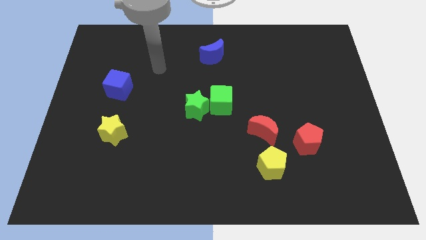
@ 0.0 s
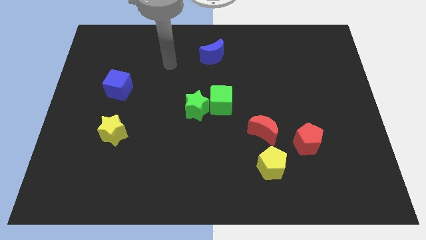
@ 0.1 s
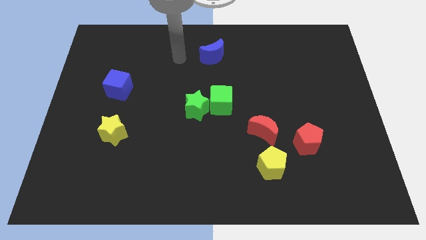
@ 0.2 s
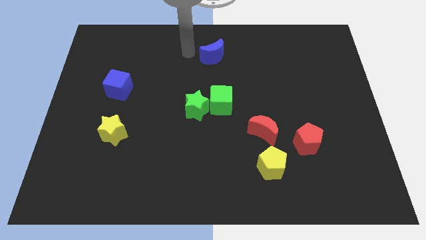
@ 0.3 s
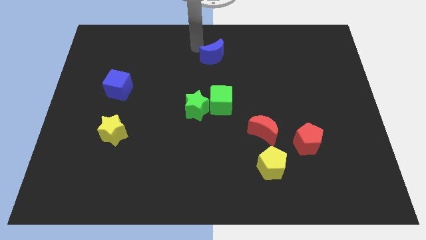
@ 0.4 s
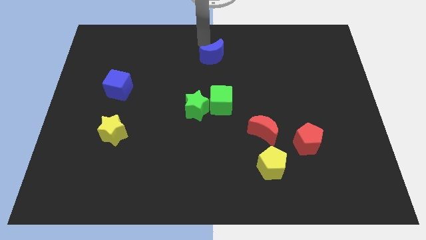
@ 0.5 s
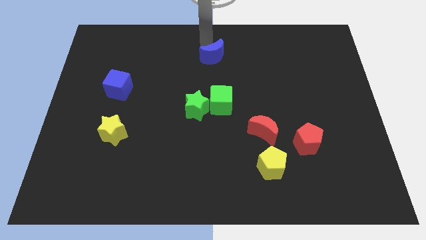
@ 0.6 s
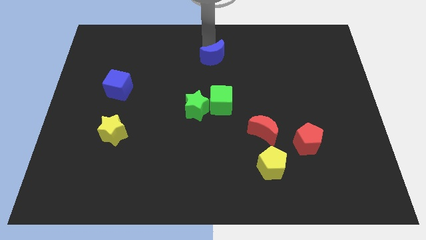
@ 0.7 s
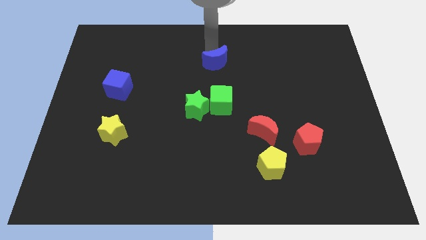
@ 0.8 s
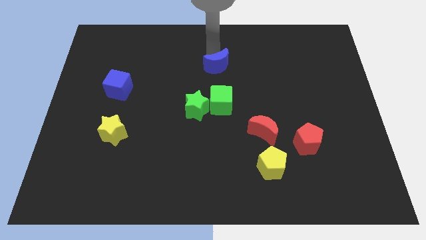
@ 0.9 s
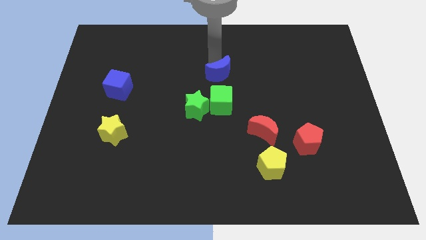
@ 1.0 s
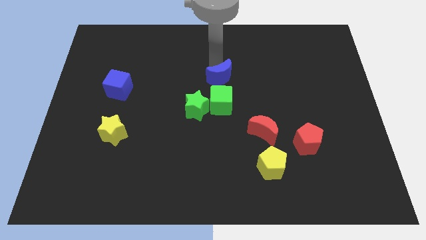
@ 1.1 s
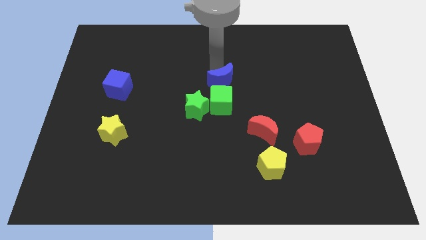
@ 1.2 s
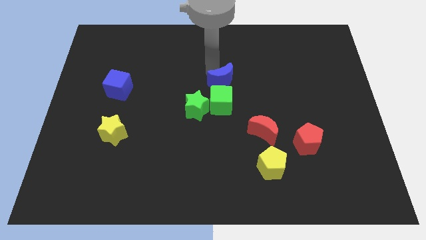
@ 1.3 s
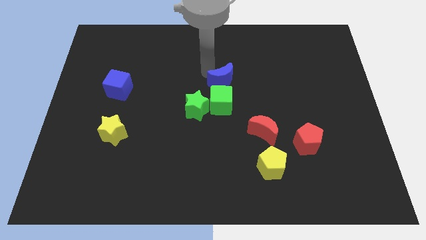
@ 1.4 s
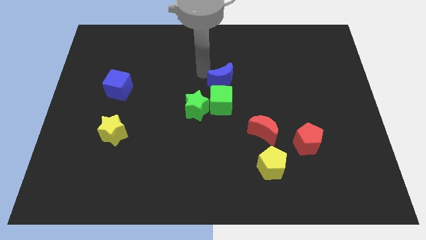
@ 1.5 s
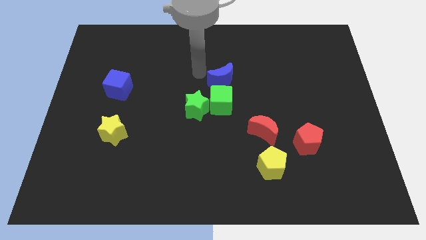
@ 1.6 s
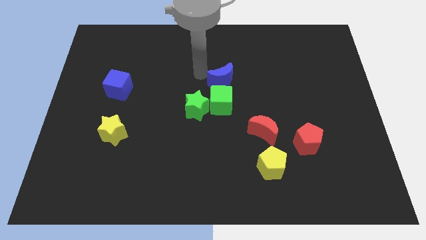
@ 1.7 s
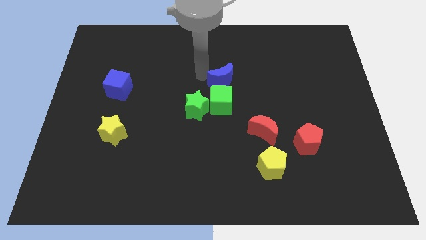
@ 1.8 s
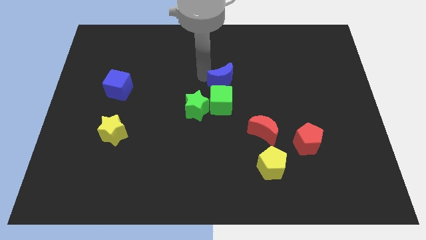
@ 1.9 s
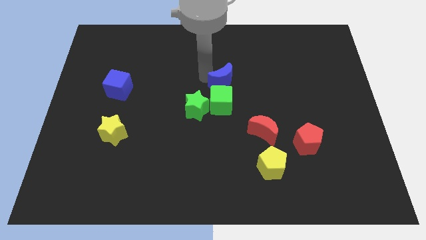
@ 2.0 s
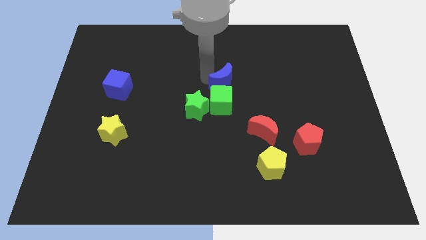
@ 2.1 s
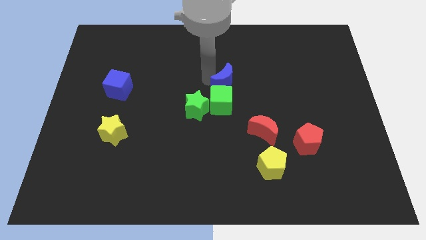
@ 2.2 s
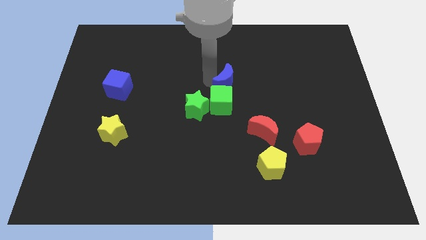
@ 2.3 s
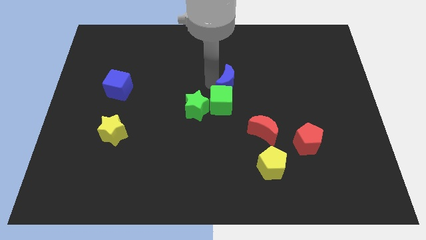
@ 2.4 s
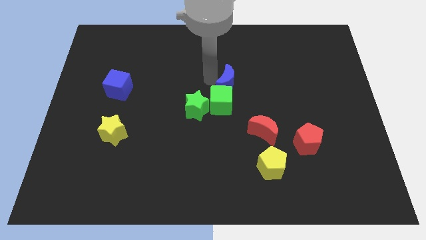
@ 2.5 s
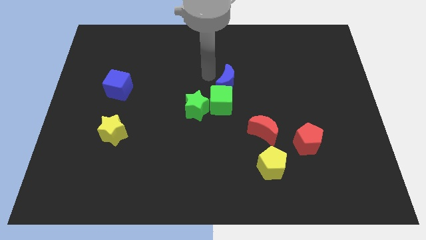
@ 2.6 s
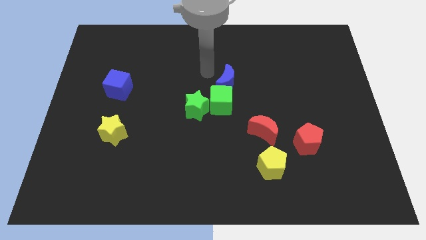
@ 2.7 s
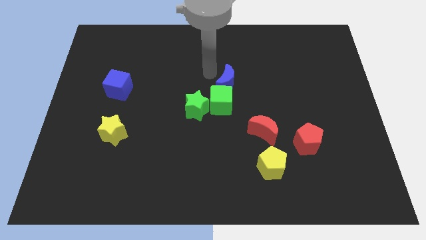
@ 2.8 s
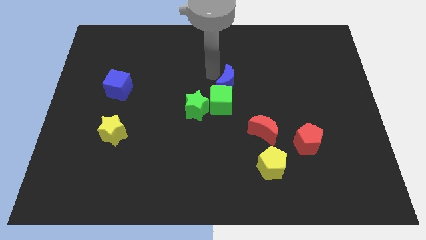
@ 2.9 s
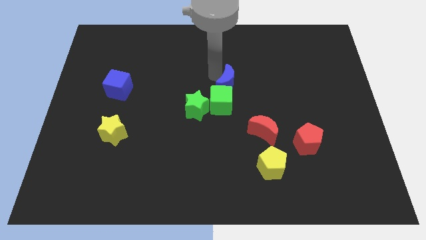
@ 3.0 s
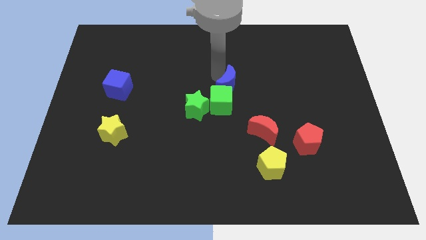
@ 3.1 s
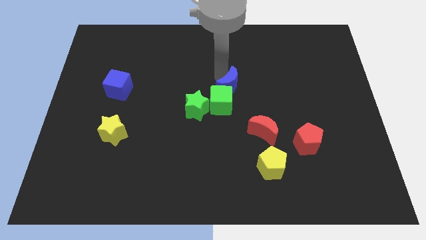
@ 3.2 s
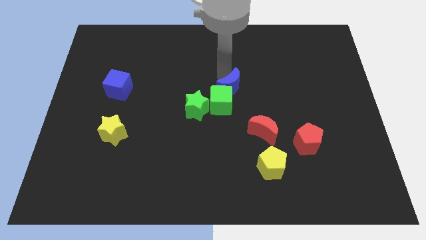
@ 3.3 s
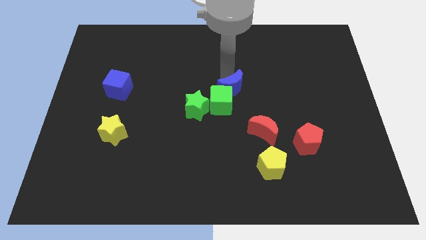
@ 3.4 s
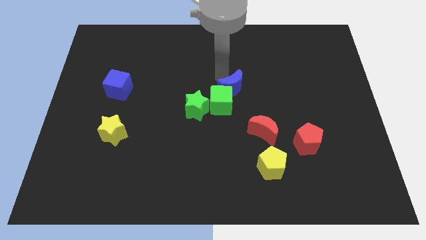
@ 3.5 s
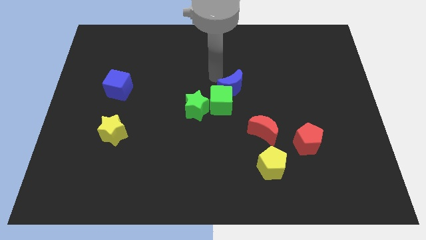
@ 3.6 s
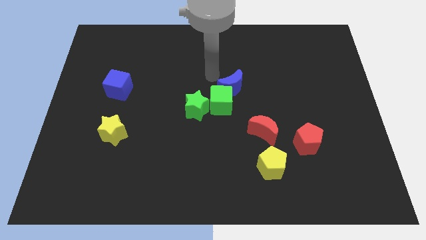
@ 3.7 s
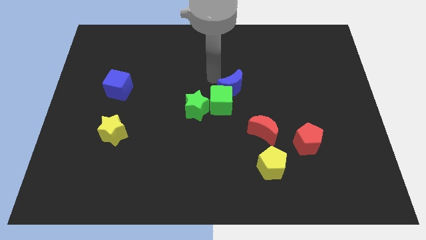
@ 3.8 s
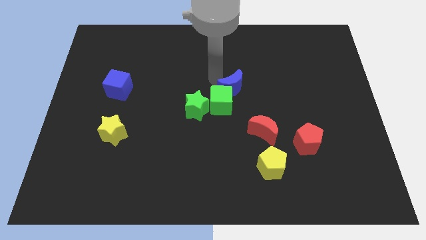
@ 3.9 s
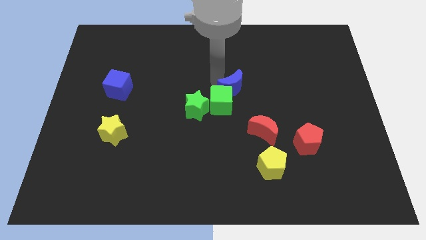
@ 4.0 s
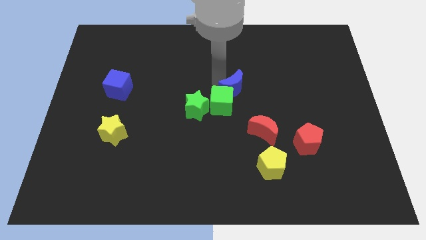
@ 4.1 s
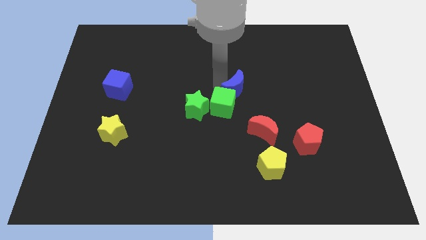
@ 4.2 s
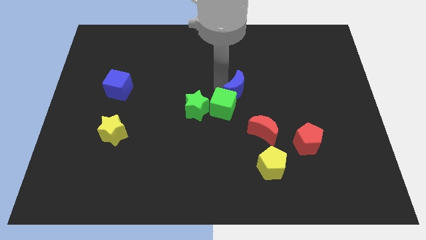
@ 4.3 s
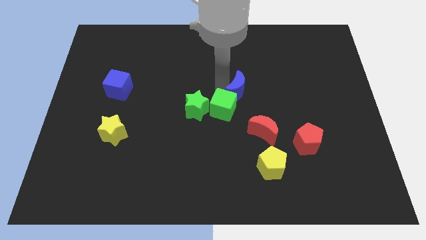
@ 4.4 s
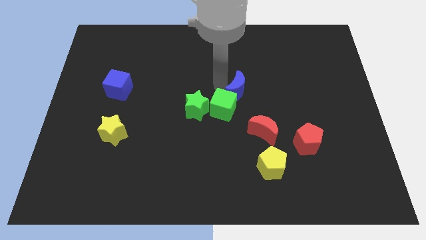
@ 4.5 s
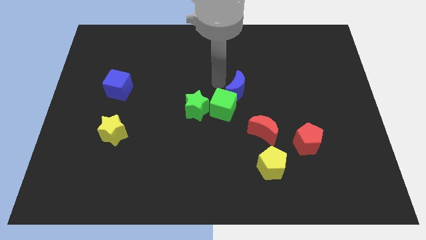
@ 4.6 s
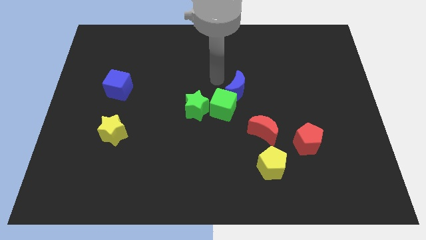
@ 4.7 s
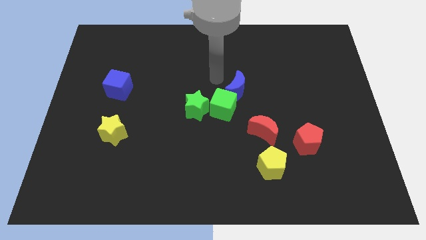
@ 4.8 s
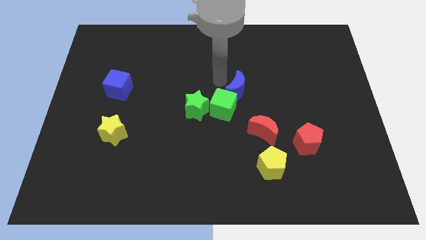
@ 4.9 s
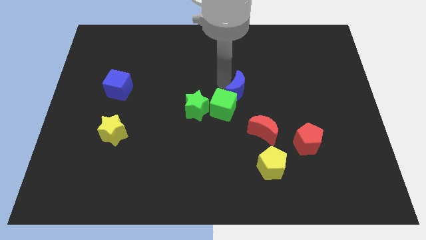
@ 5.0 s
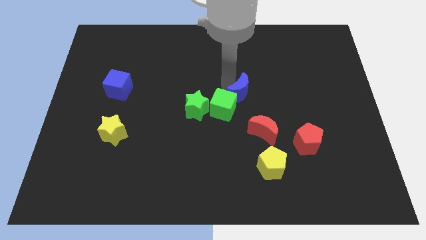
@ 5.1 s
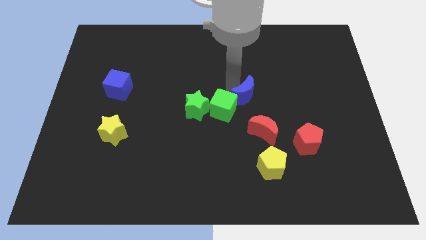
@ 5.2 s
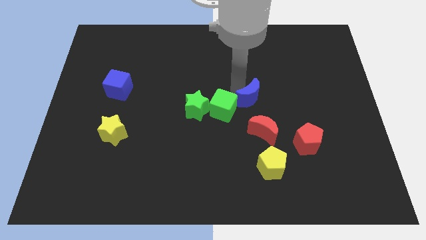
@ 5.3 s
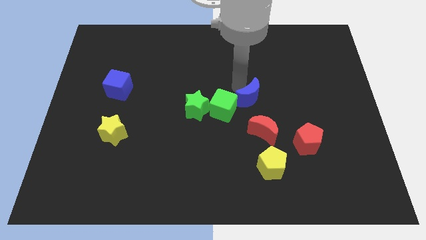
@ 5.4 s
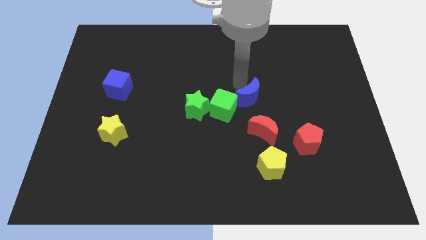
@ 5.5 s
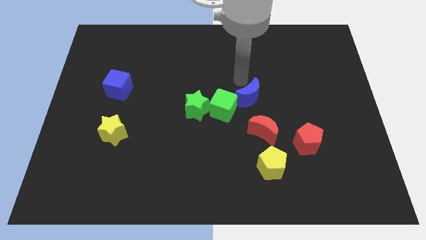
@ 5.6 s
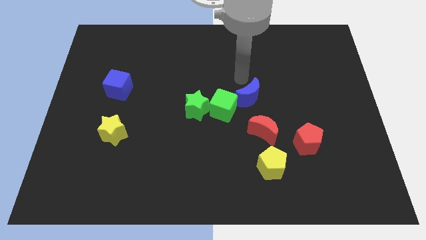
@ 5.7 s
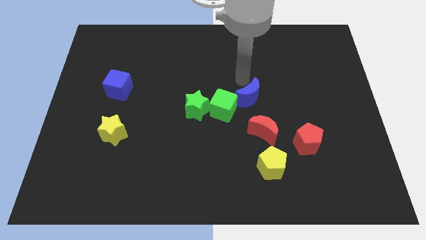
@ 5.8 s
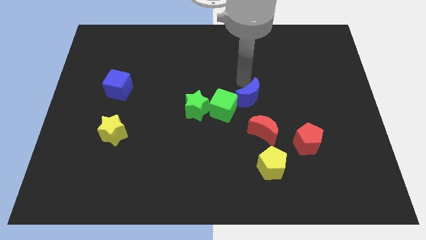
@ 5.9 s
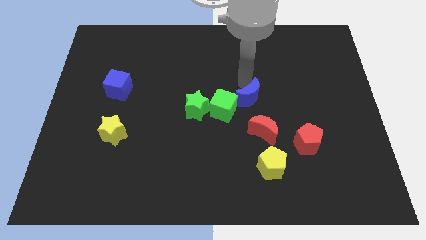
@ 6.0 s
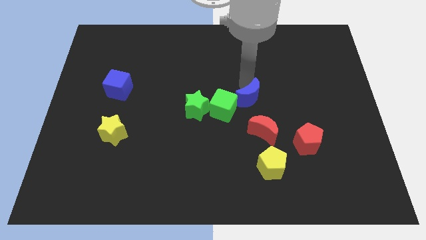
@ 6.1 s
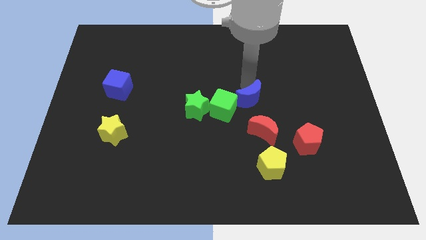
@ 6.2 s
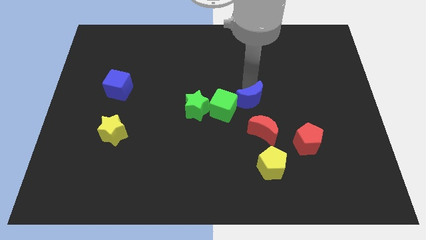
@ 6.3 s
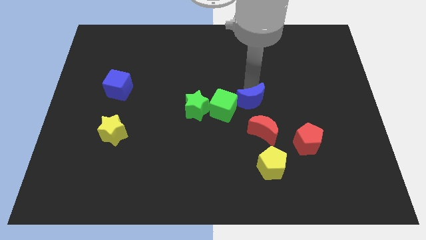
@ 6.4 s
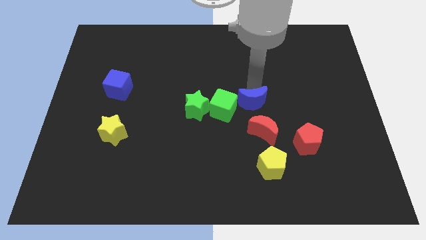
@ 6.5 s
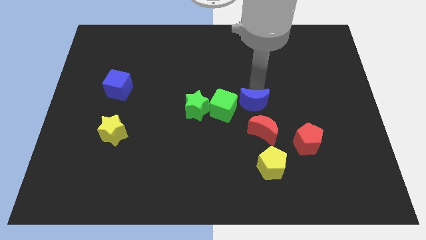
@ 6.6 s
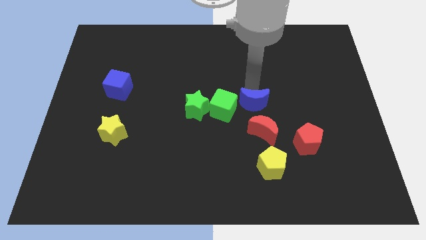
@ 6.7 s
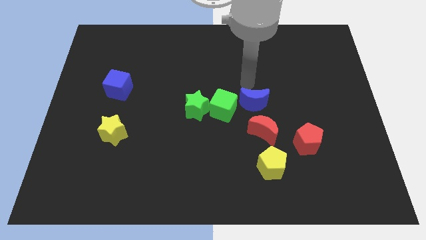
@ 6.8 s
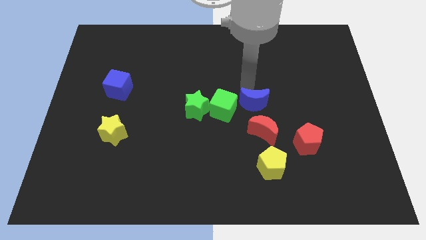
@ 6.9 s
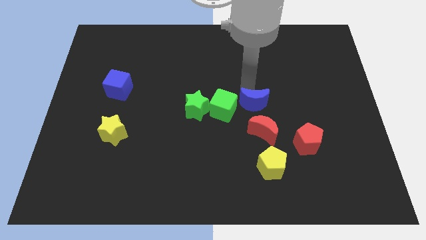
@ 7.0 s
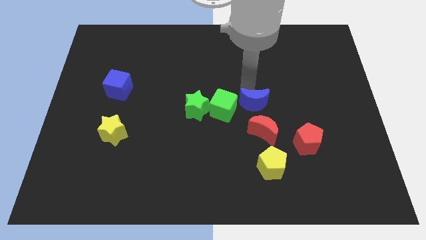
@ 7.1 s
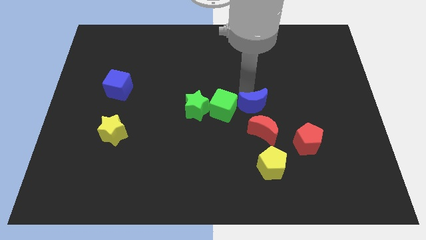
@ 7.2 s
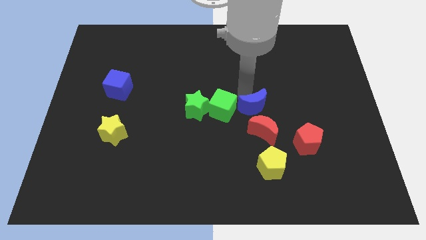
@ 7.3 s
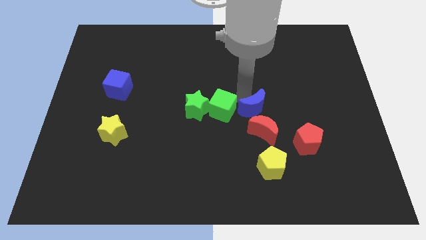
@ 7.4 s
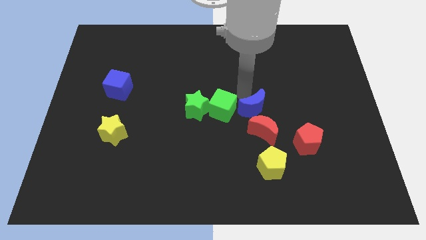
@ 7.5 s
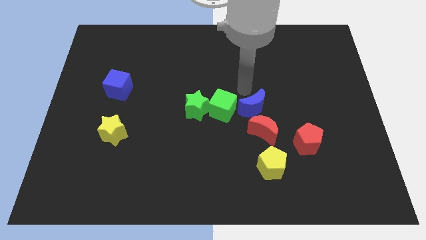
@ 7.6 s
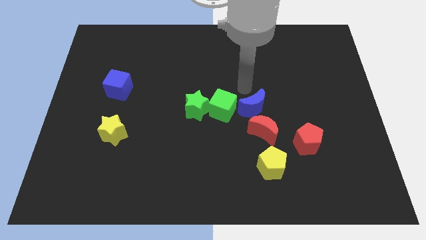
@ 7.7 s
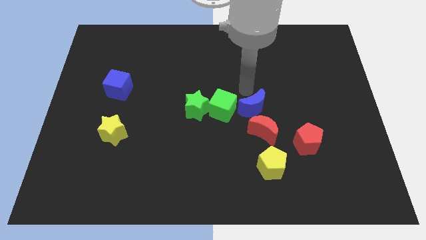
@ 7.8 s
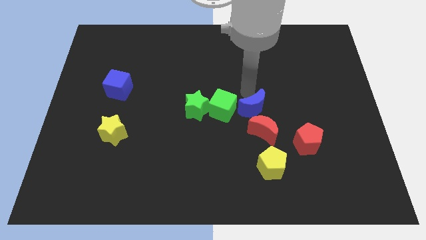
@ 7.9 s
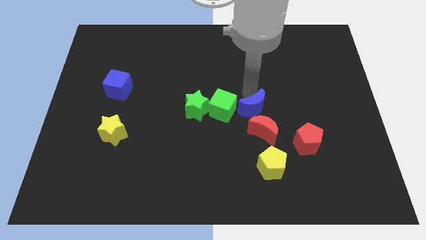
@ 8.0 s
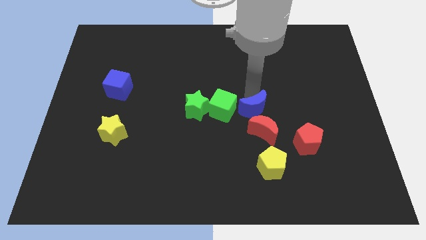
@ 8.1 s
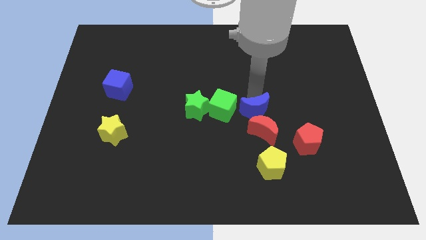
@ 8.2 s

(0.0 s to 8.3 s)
push the blue moon next to the red moon
